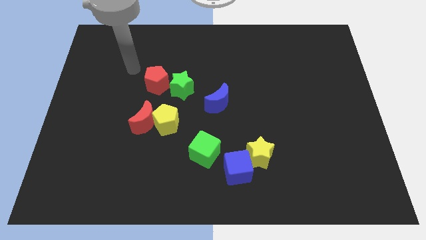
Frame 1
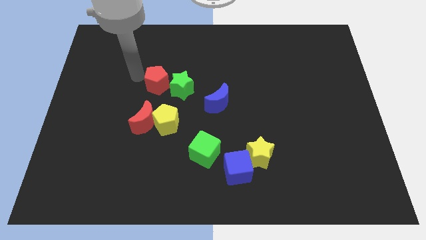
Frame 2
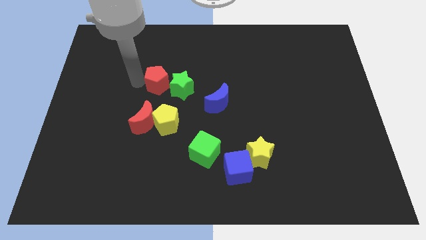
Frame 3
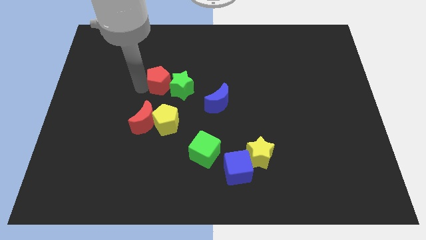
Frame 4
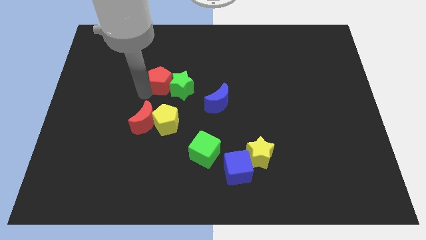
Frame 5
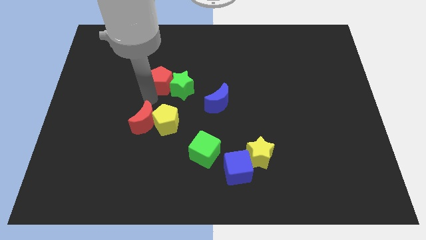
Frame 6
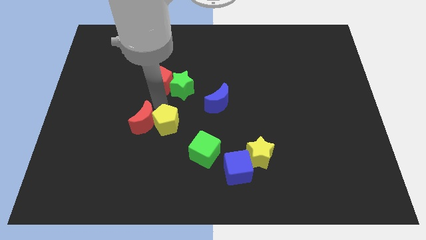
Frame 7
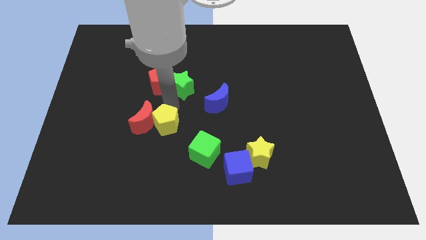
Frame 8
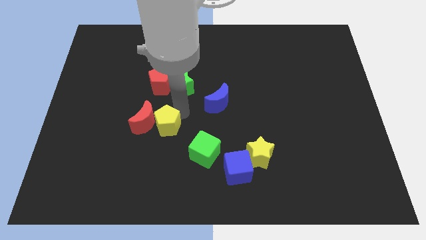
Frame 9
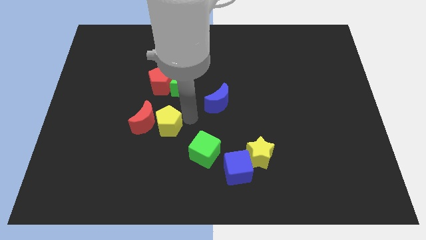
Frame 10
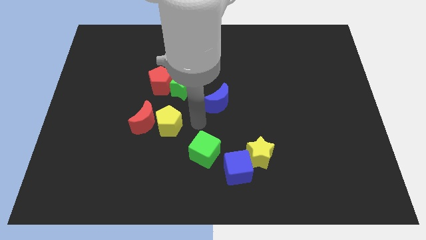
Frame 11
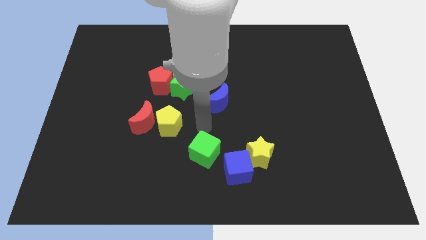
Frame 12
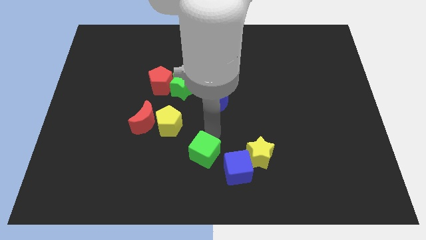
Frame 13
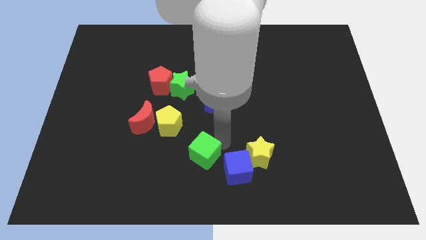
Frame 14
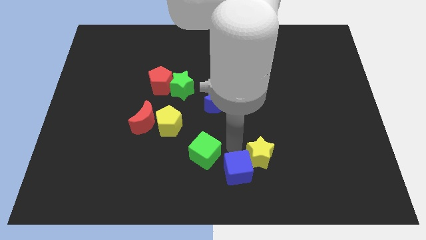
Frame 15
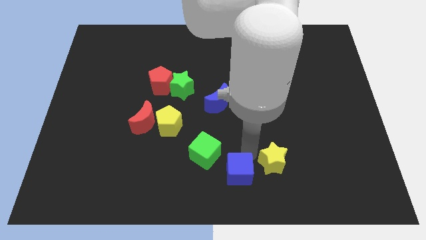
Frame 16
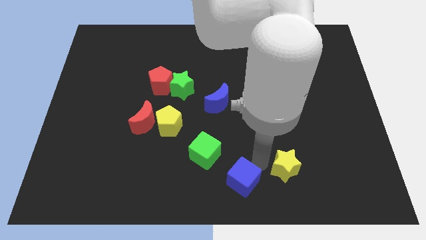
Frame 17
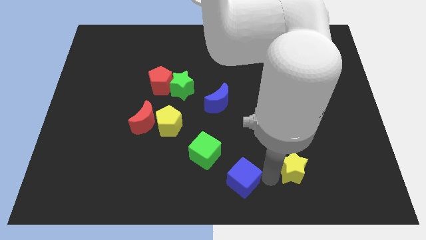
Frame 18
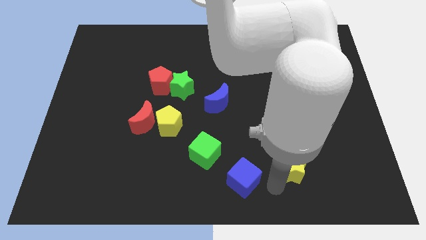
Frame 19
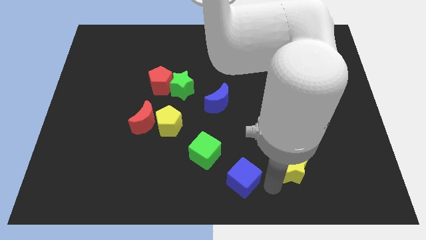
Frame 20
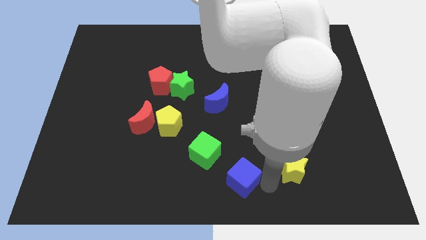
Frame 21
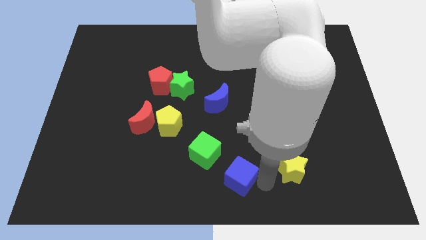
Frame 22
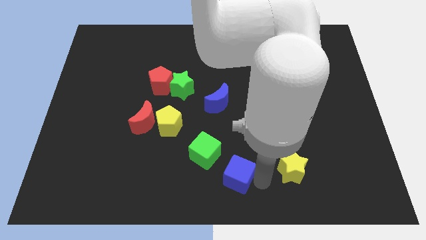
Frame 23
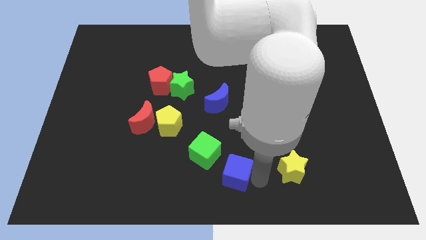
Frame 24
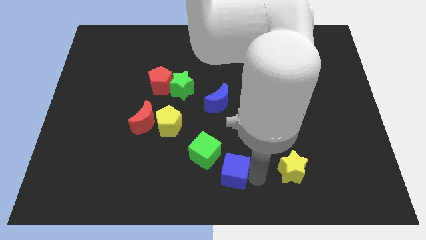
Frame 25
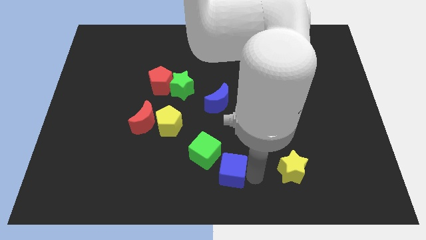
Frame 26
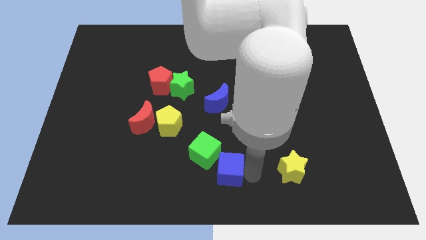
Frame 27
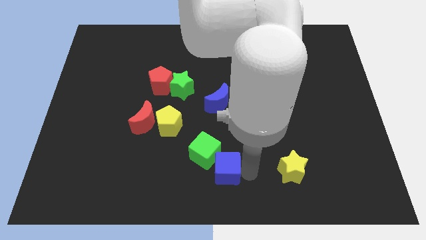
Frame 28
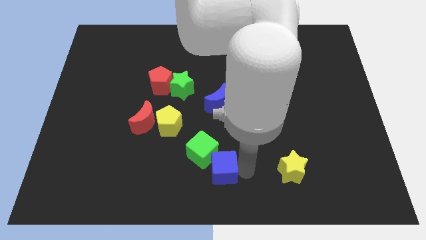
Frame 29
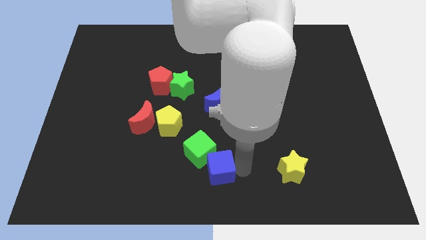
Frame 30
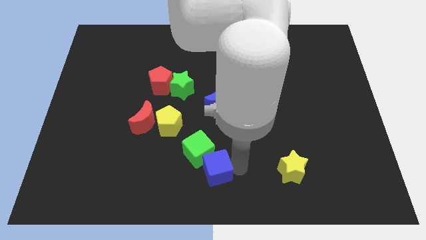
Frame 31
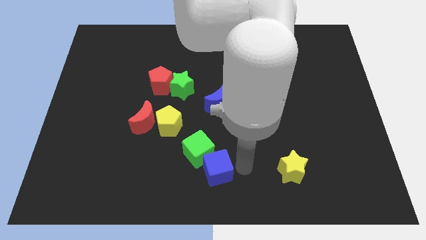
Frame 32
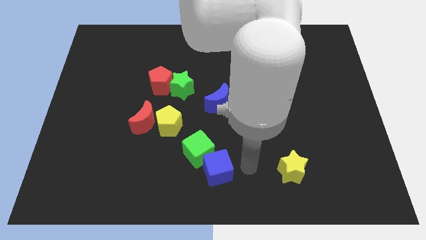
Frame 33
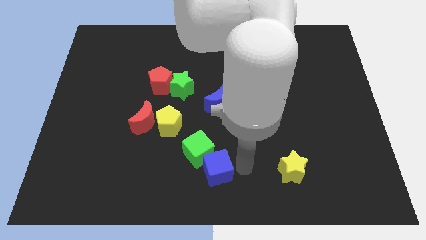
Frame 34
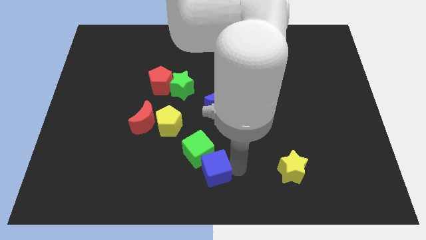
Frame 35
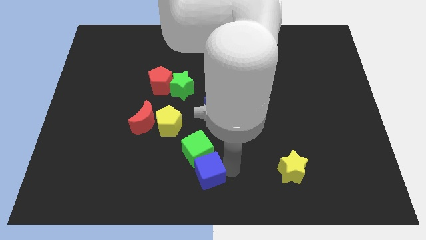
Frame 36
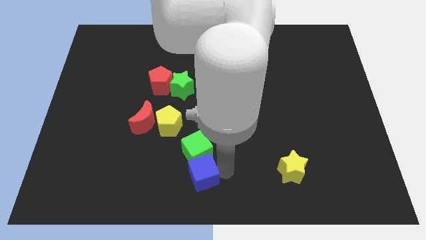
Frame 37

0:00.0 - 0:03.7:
slightly move the blue cube left

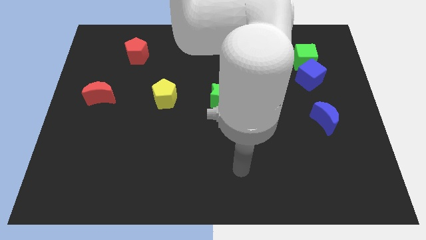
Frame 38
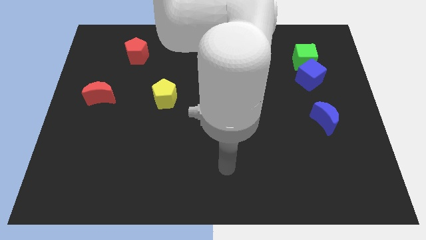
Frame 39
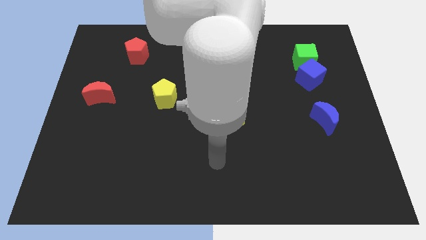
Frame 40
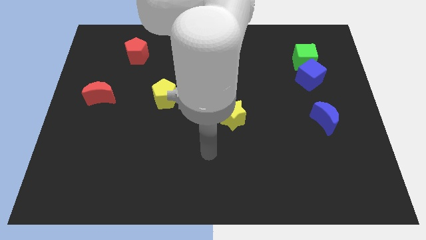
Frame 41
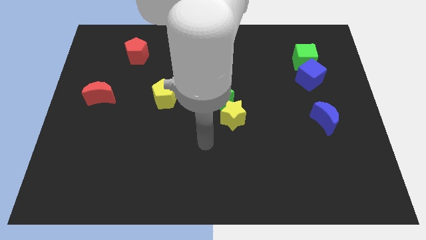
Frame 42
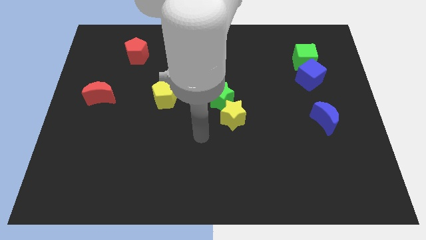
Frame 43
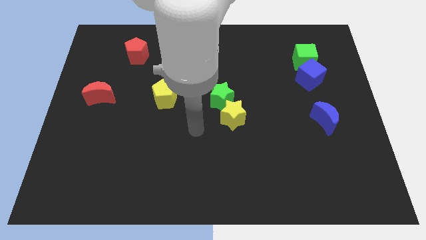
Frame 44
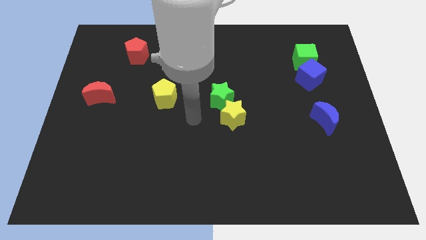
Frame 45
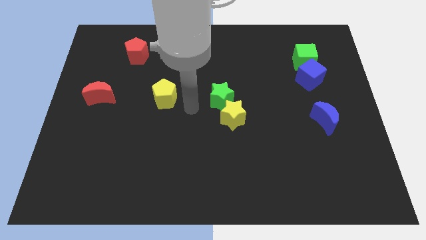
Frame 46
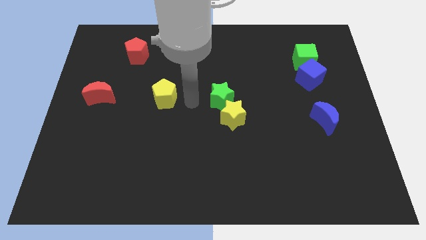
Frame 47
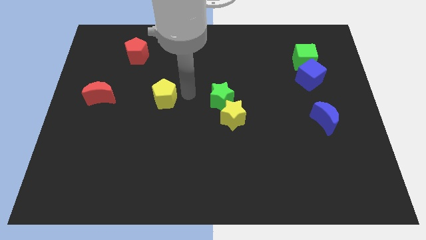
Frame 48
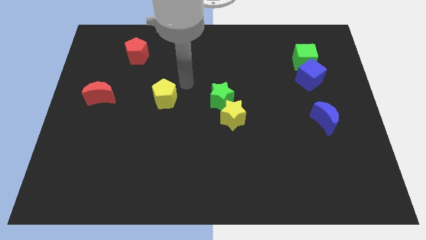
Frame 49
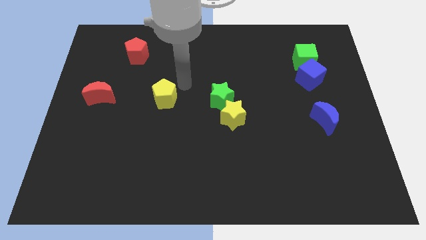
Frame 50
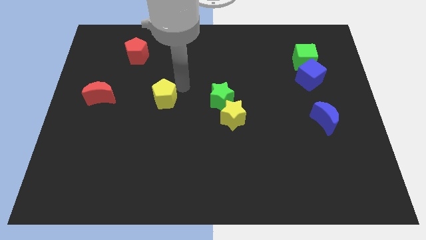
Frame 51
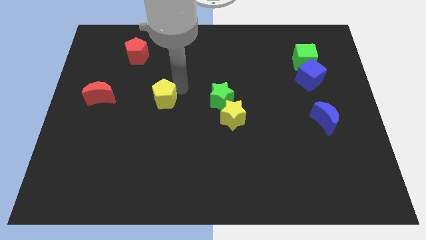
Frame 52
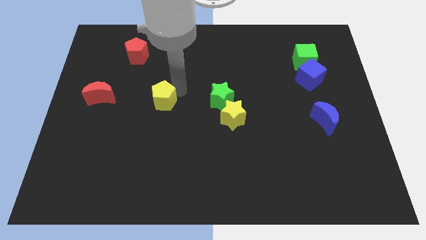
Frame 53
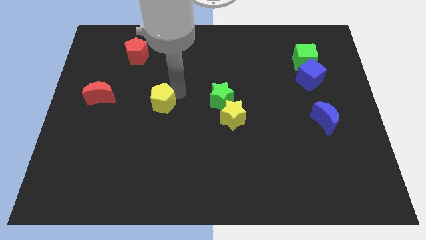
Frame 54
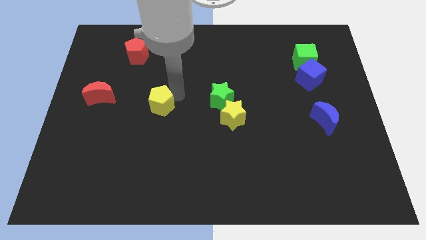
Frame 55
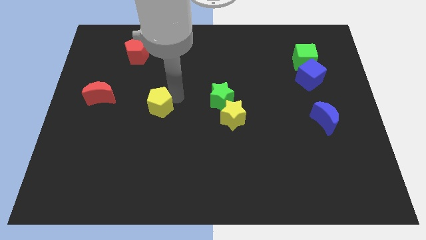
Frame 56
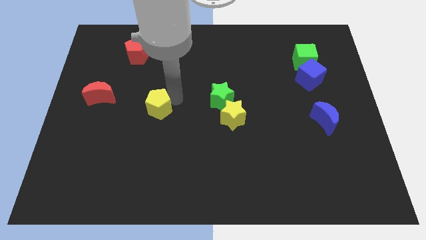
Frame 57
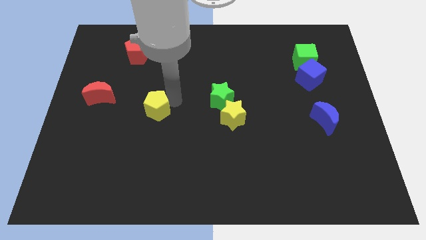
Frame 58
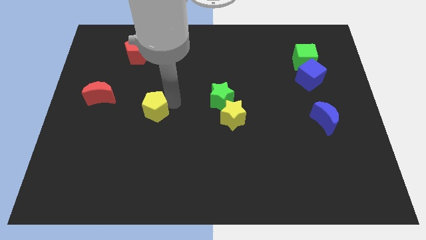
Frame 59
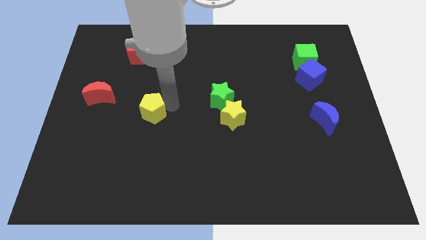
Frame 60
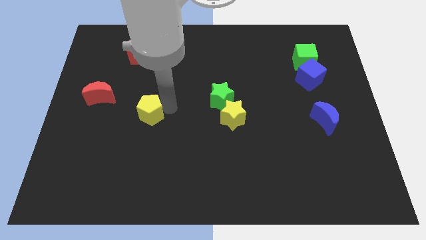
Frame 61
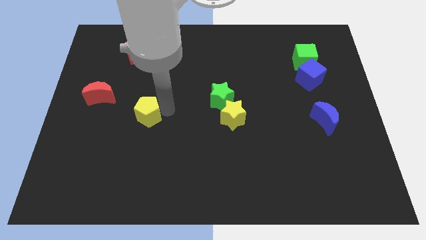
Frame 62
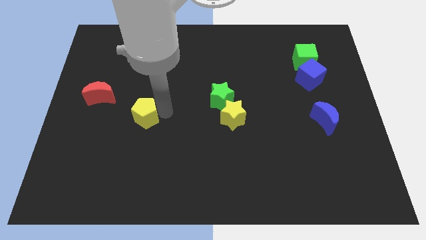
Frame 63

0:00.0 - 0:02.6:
slide the yellow pentagon down and left a little

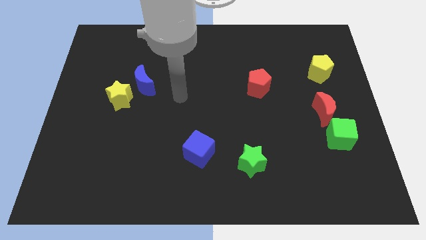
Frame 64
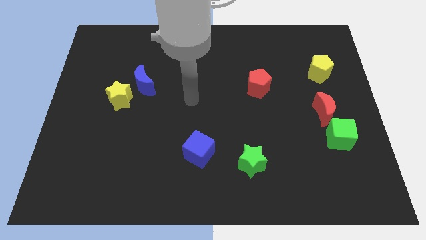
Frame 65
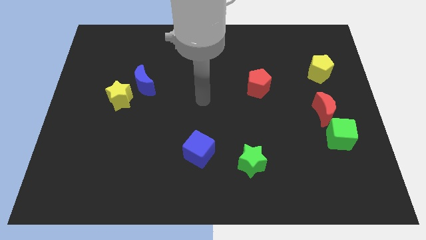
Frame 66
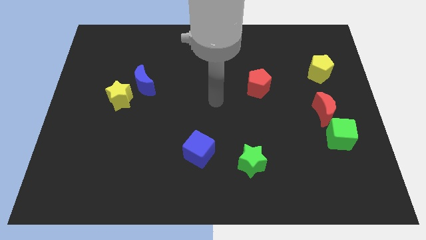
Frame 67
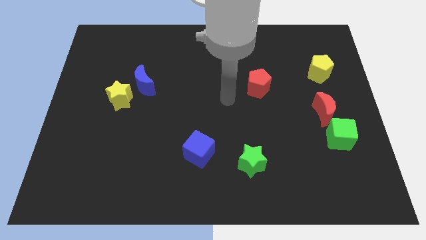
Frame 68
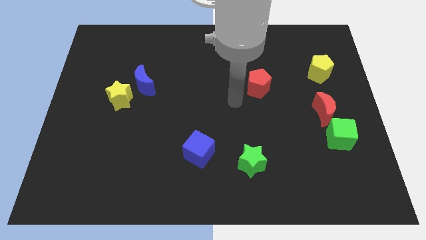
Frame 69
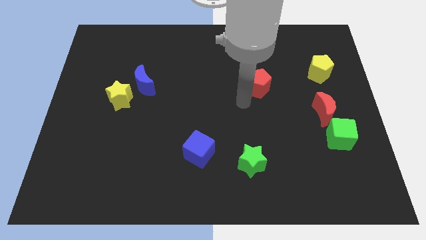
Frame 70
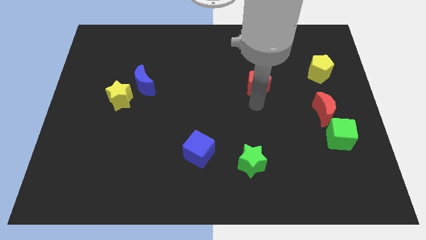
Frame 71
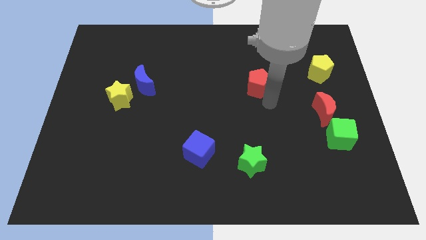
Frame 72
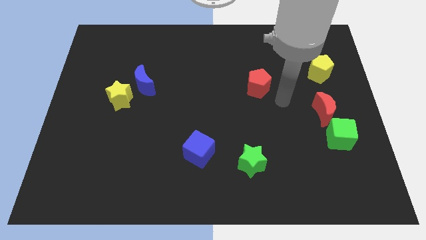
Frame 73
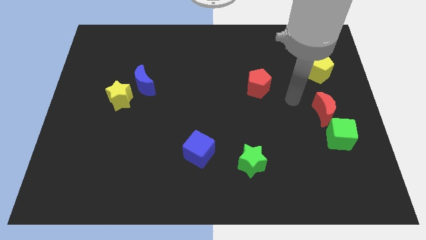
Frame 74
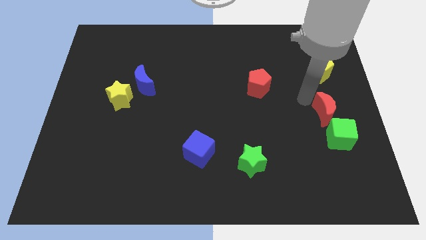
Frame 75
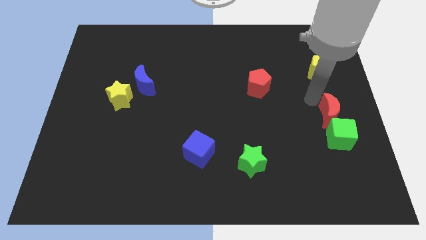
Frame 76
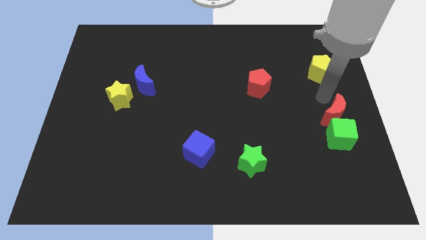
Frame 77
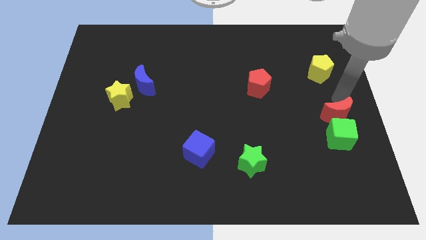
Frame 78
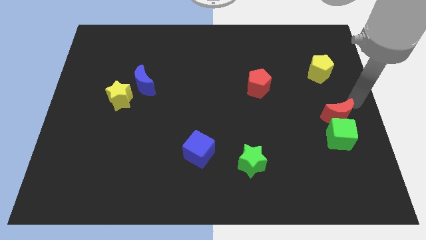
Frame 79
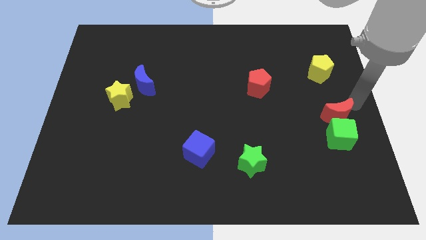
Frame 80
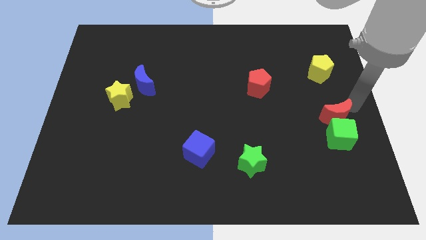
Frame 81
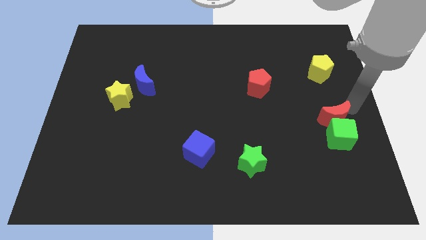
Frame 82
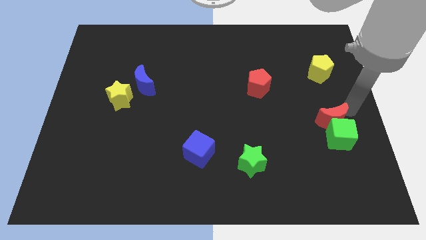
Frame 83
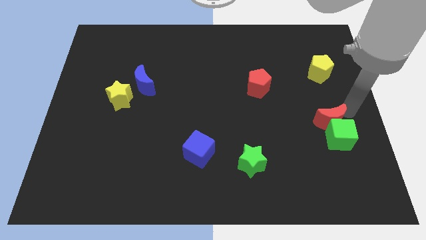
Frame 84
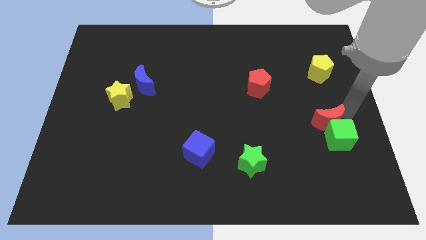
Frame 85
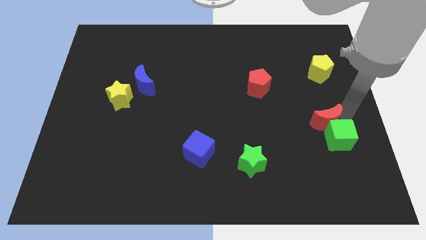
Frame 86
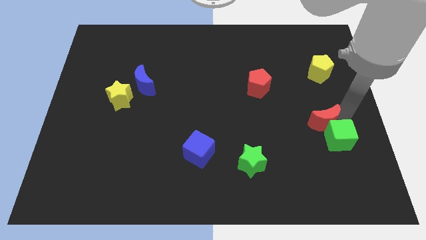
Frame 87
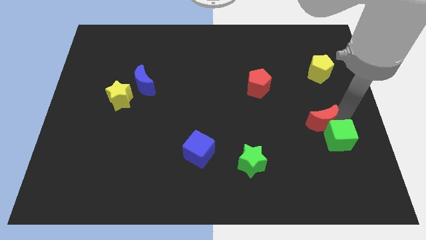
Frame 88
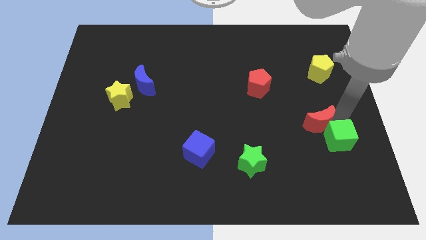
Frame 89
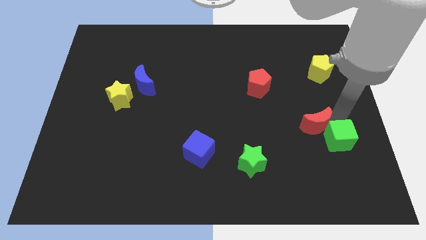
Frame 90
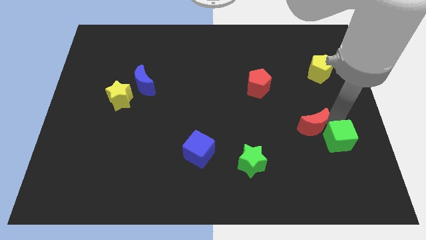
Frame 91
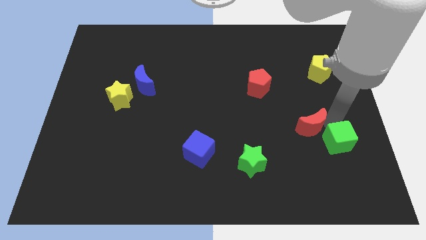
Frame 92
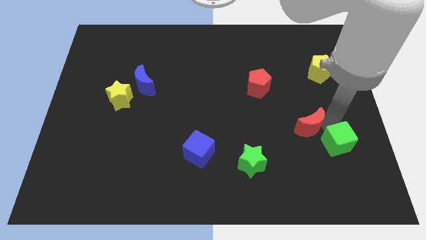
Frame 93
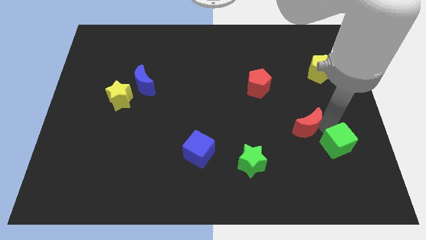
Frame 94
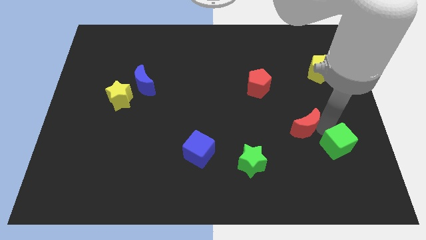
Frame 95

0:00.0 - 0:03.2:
slide the red moon down and then left a little bit
